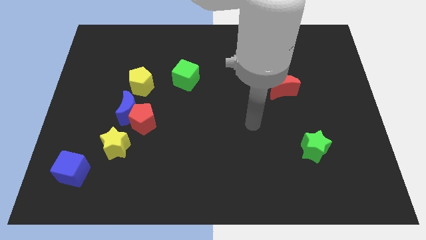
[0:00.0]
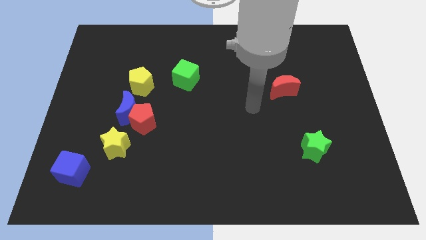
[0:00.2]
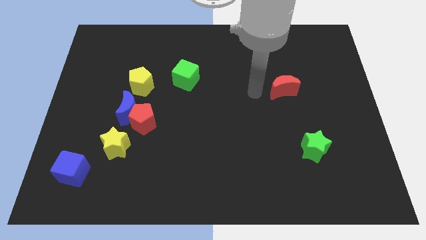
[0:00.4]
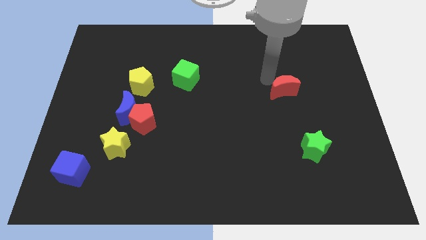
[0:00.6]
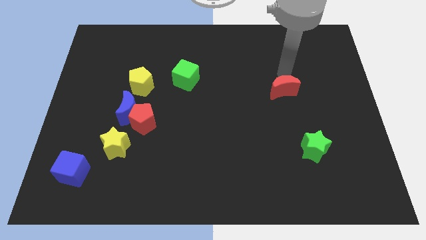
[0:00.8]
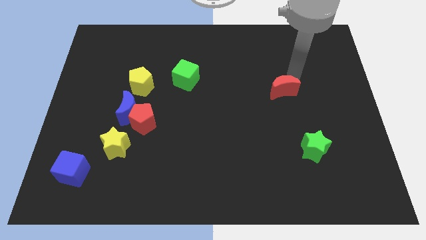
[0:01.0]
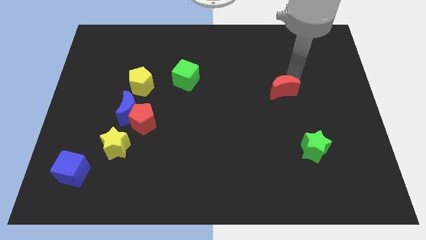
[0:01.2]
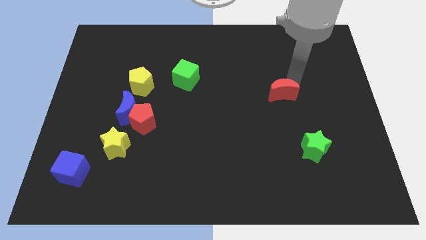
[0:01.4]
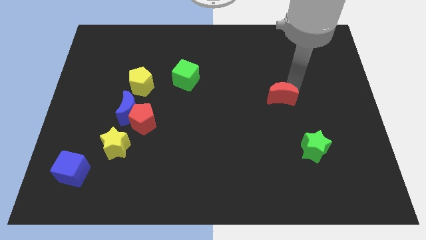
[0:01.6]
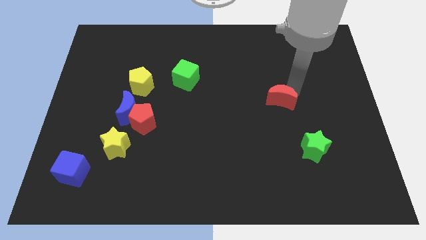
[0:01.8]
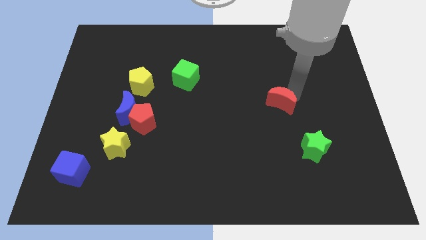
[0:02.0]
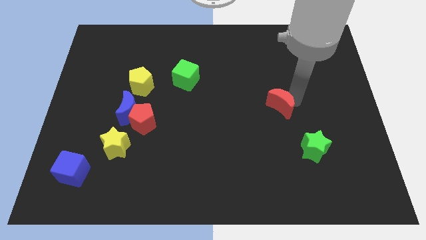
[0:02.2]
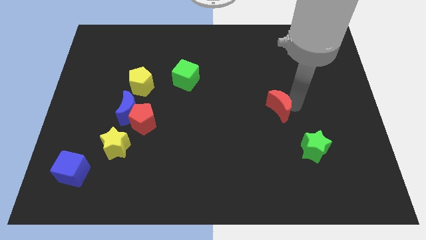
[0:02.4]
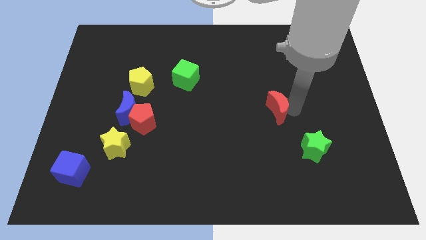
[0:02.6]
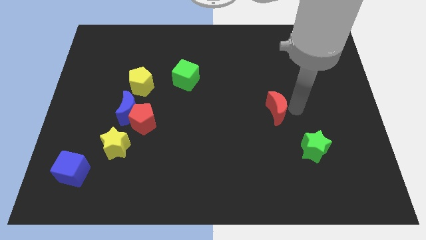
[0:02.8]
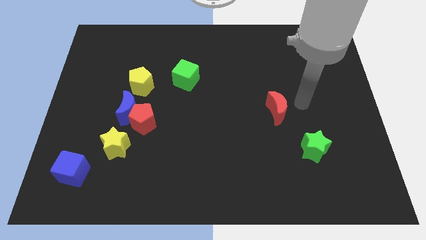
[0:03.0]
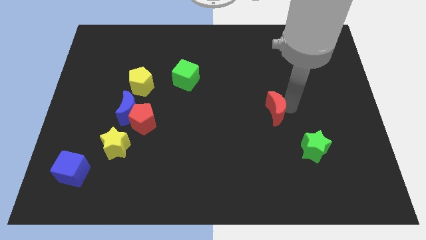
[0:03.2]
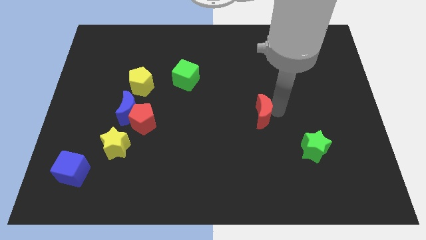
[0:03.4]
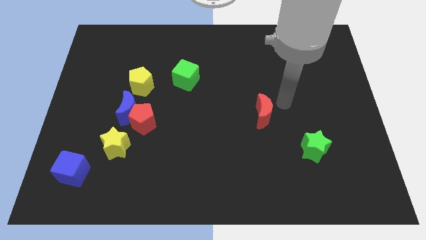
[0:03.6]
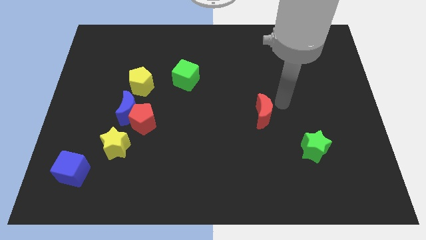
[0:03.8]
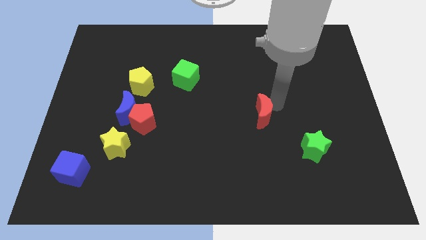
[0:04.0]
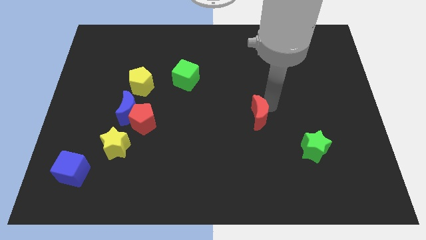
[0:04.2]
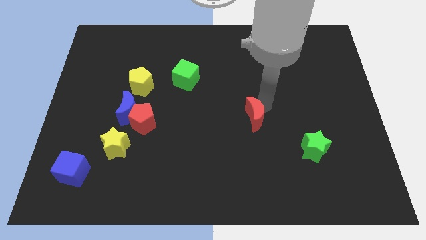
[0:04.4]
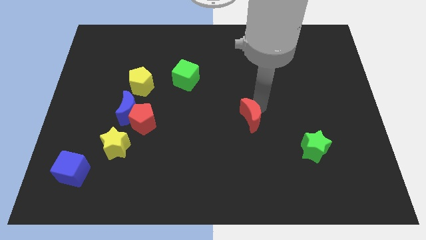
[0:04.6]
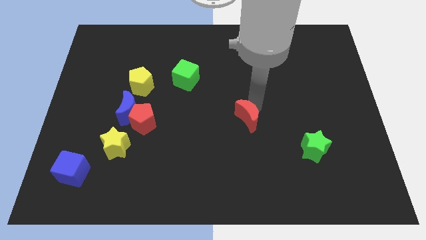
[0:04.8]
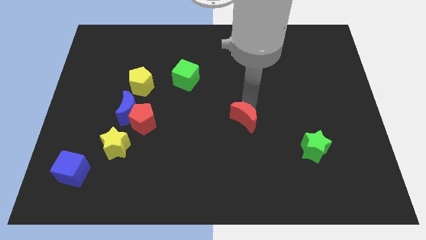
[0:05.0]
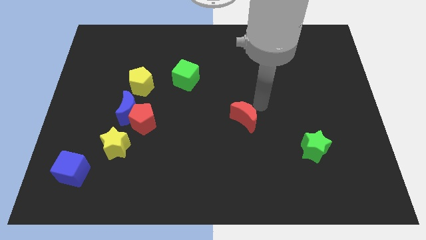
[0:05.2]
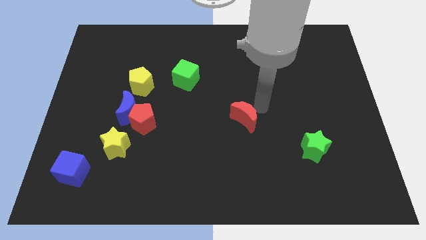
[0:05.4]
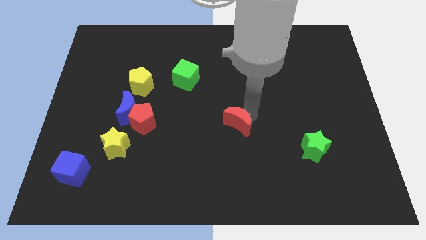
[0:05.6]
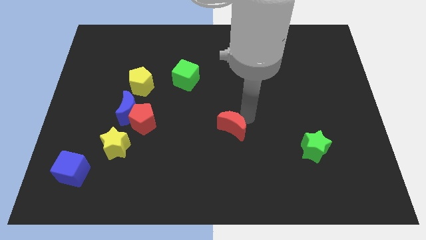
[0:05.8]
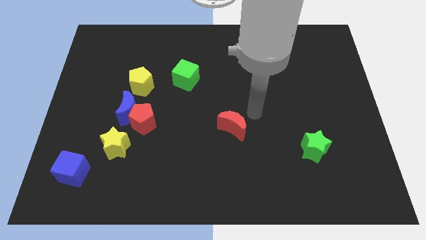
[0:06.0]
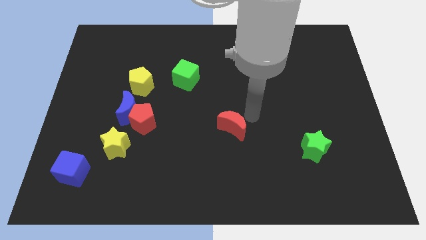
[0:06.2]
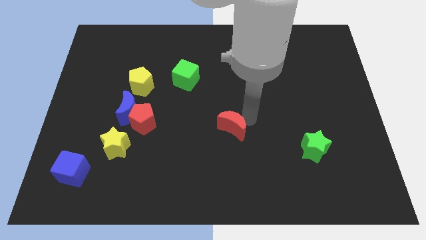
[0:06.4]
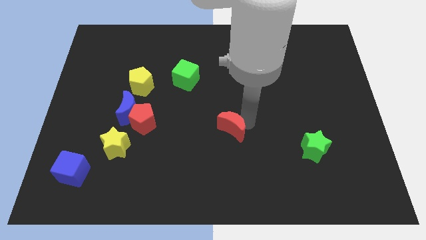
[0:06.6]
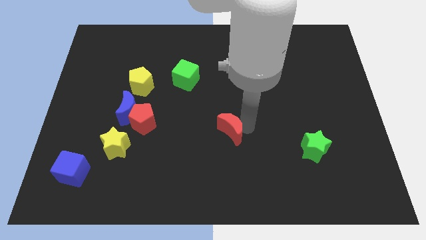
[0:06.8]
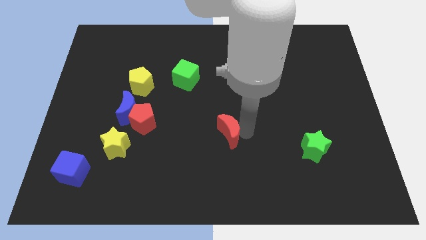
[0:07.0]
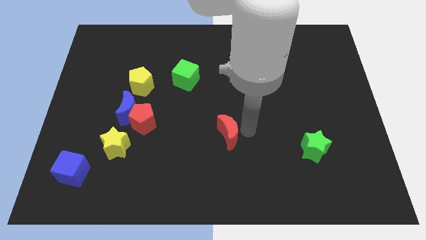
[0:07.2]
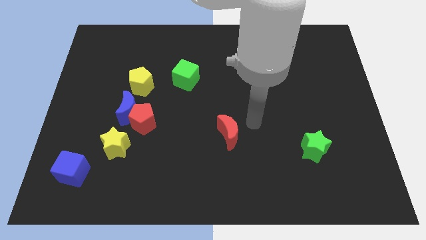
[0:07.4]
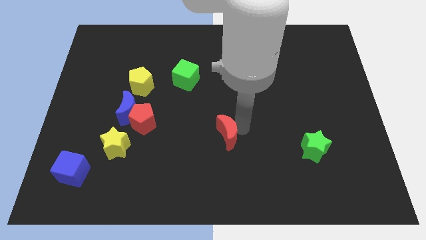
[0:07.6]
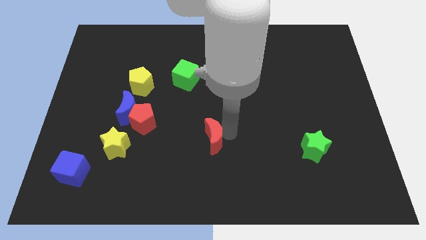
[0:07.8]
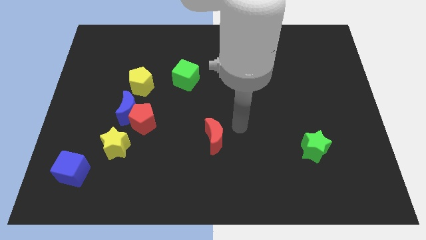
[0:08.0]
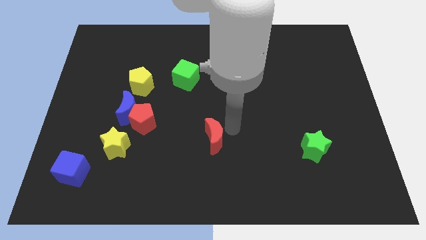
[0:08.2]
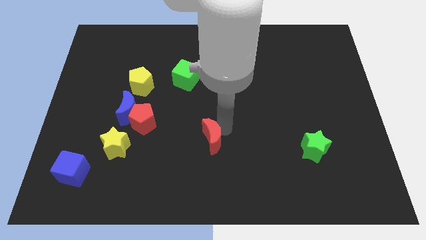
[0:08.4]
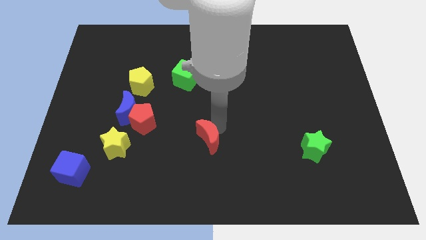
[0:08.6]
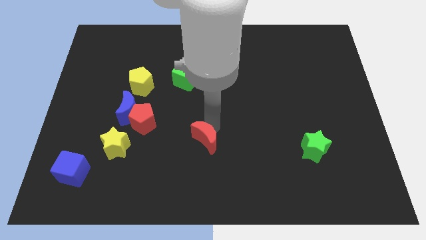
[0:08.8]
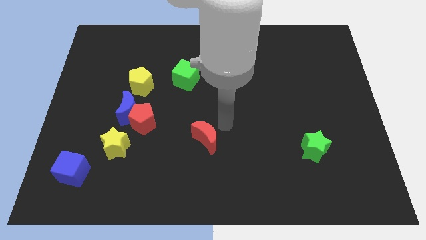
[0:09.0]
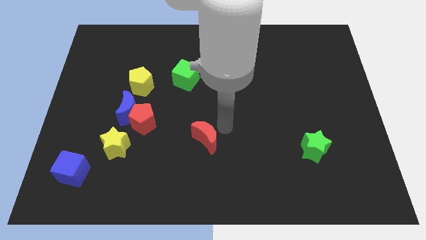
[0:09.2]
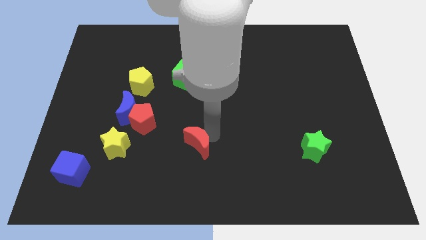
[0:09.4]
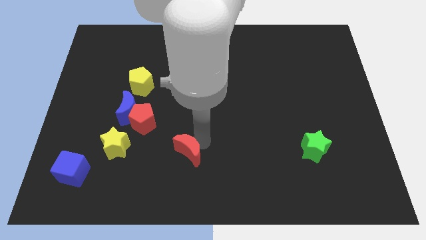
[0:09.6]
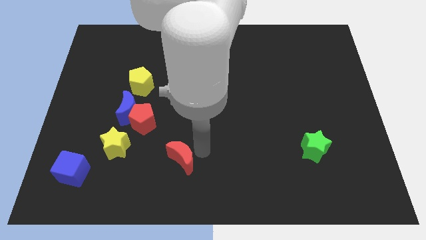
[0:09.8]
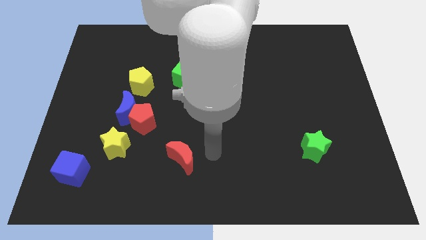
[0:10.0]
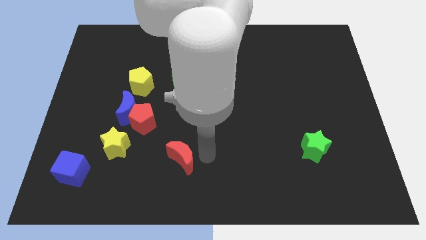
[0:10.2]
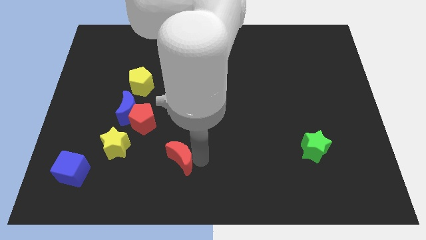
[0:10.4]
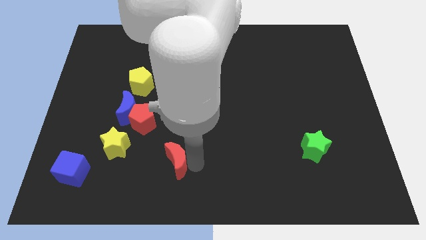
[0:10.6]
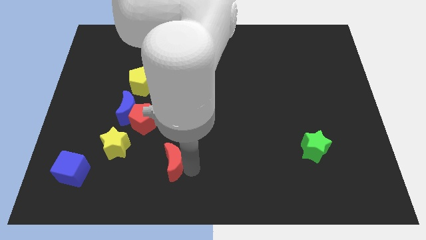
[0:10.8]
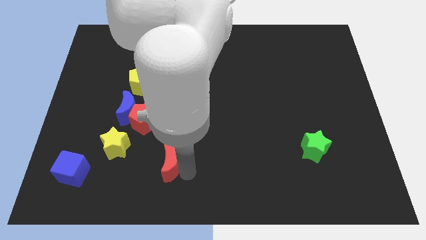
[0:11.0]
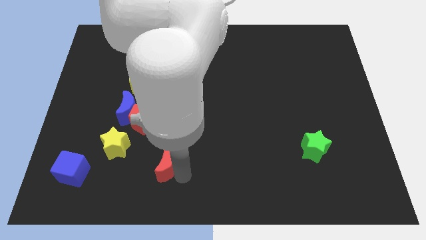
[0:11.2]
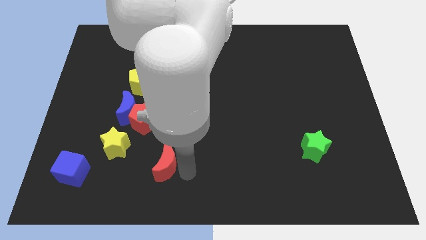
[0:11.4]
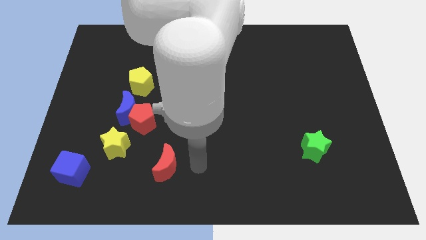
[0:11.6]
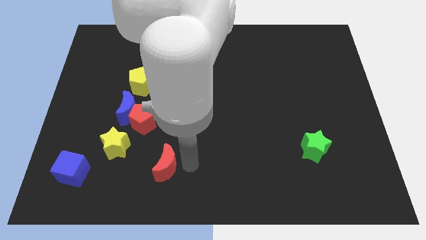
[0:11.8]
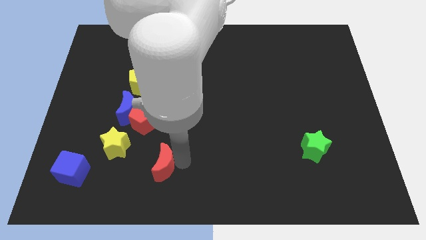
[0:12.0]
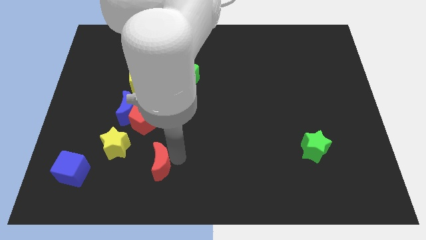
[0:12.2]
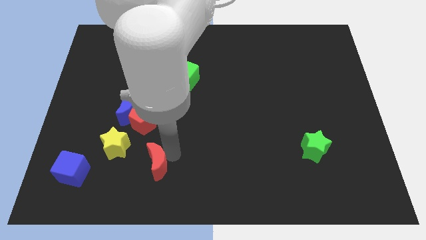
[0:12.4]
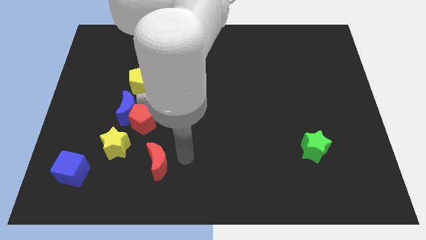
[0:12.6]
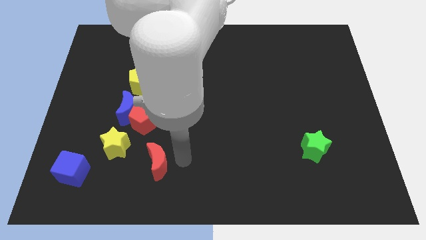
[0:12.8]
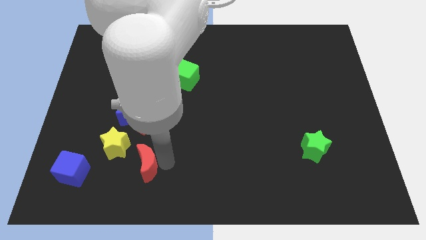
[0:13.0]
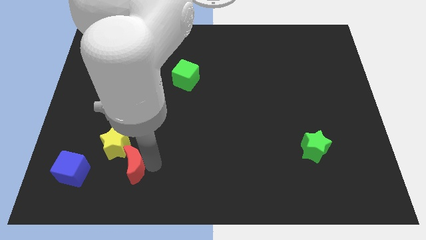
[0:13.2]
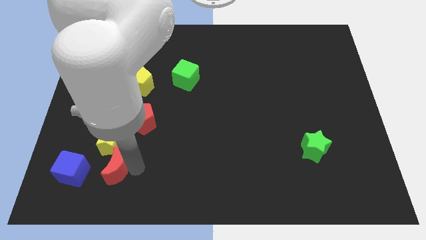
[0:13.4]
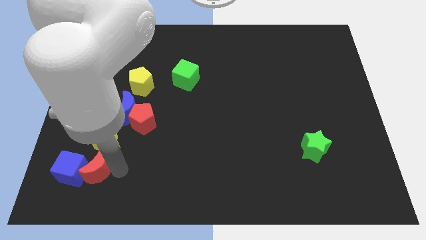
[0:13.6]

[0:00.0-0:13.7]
push the red moon to the blue cube
